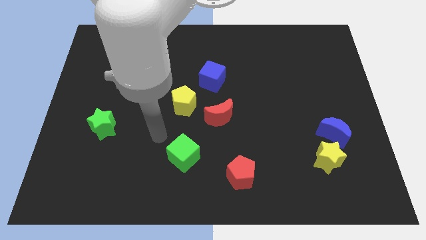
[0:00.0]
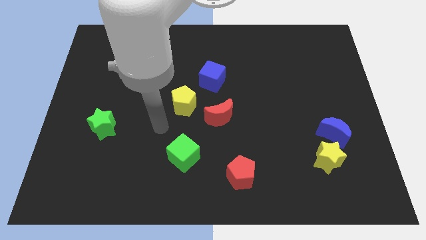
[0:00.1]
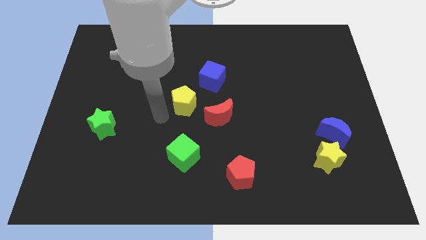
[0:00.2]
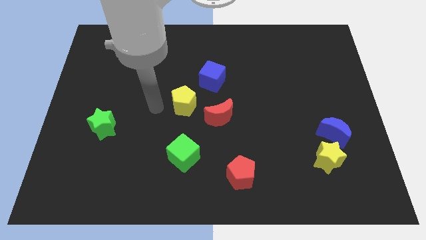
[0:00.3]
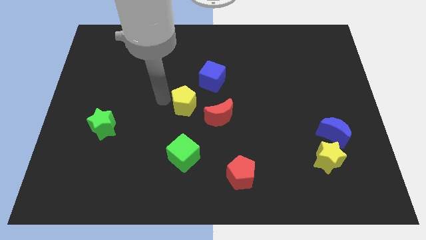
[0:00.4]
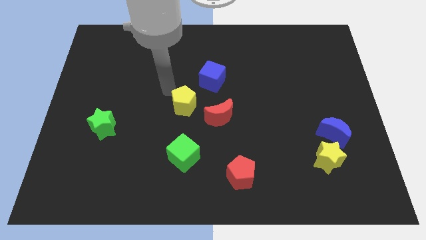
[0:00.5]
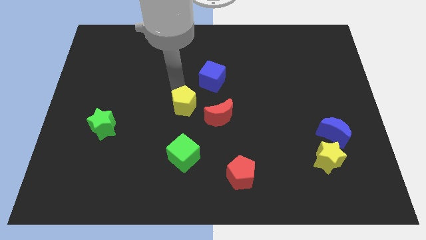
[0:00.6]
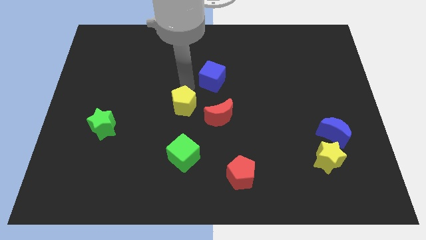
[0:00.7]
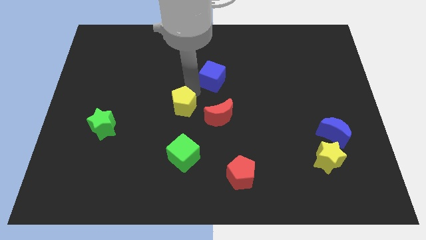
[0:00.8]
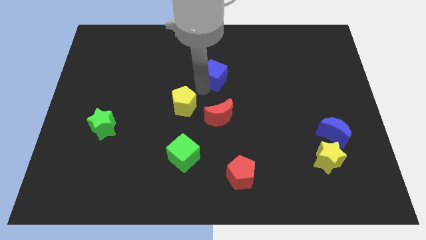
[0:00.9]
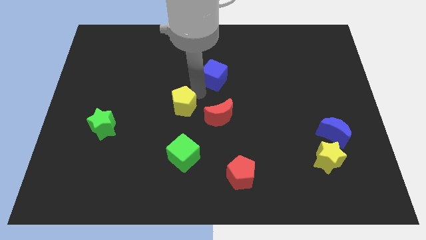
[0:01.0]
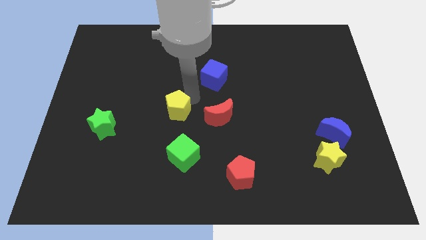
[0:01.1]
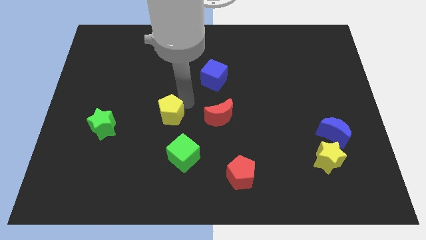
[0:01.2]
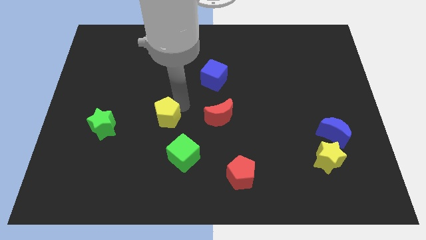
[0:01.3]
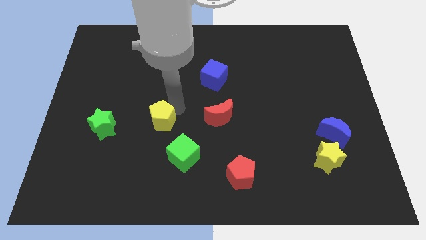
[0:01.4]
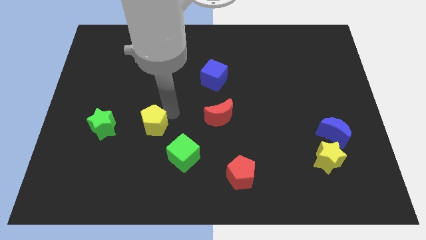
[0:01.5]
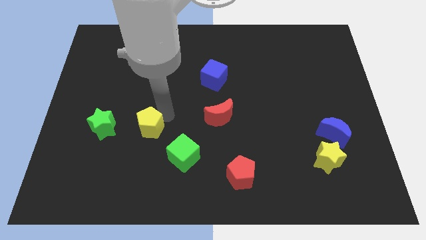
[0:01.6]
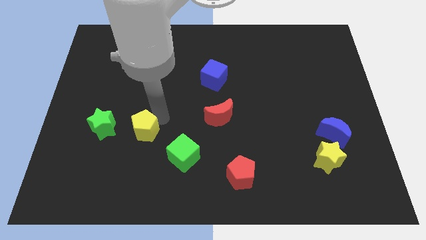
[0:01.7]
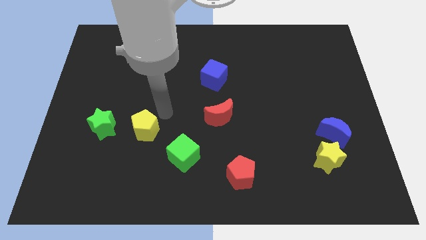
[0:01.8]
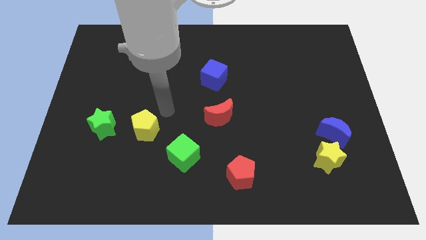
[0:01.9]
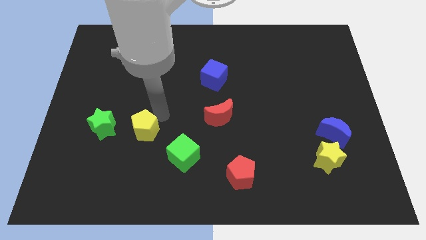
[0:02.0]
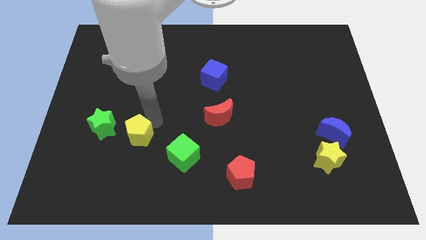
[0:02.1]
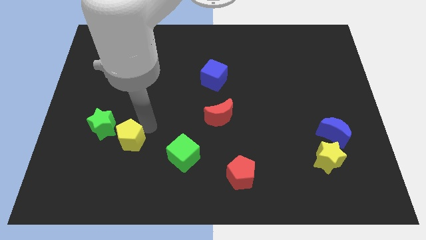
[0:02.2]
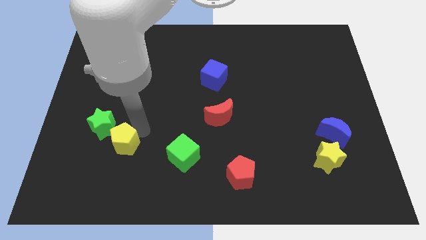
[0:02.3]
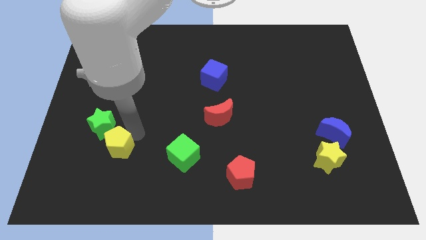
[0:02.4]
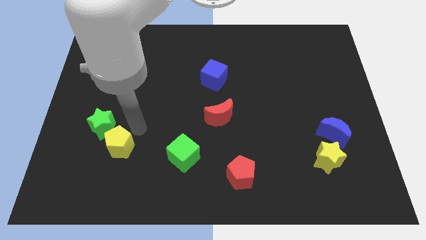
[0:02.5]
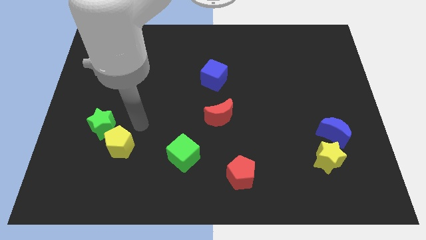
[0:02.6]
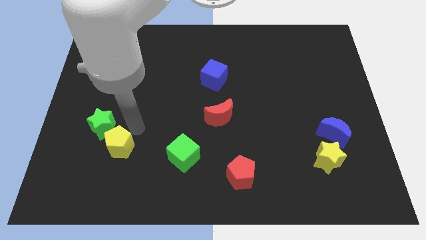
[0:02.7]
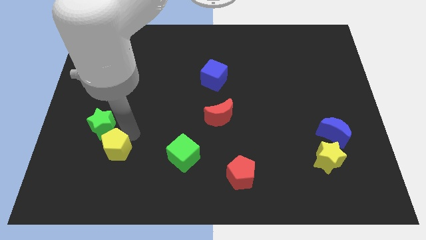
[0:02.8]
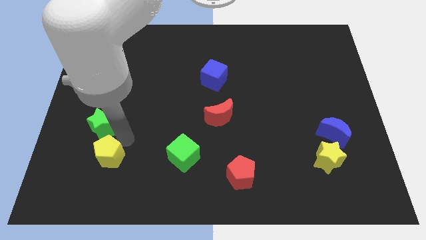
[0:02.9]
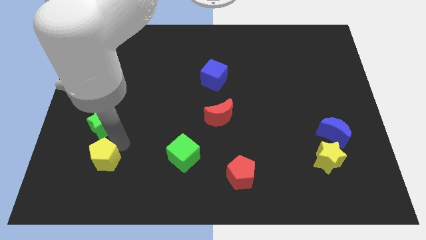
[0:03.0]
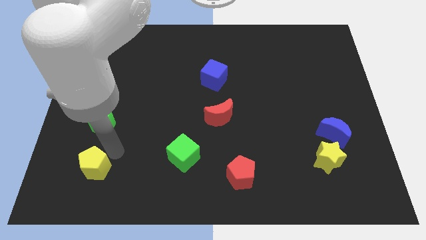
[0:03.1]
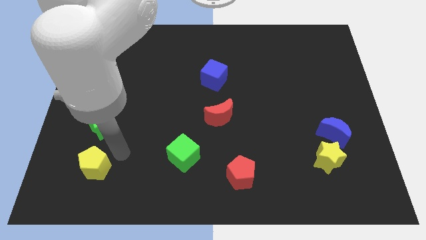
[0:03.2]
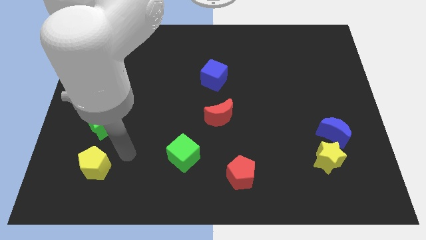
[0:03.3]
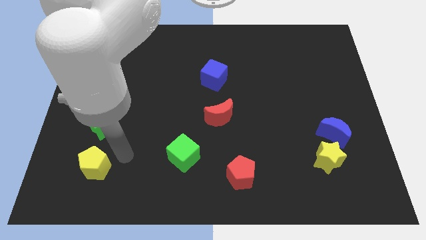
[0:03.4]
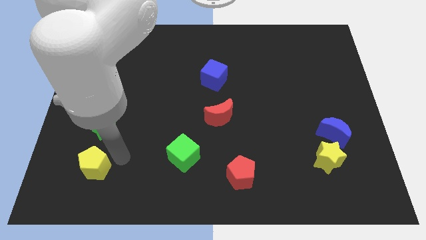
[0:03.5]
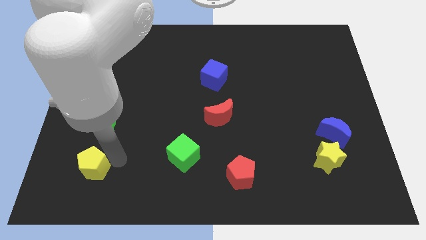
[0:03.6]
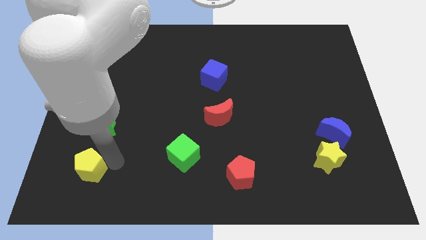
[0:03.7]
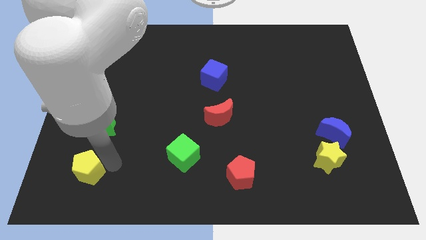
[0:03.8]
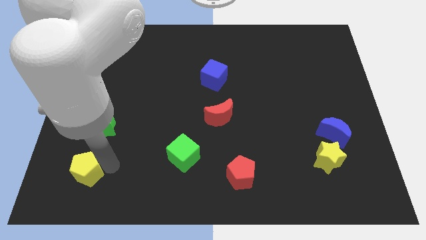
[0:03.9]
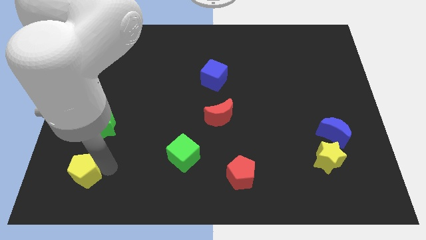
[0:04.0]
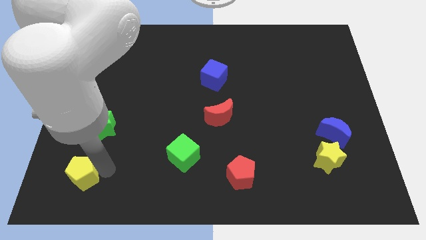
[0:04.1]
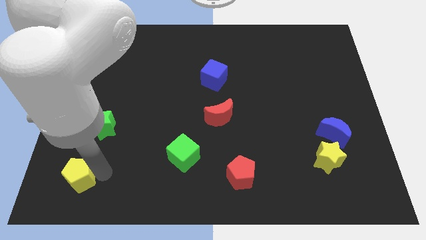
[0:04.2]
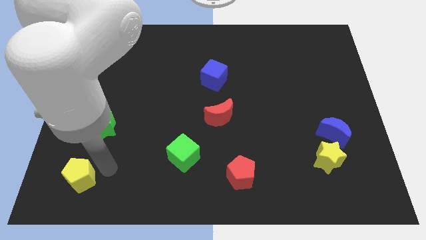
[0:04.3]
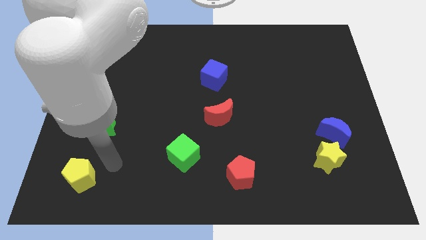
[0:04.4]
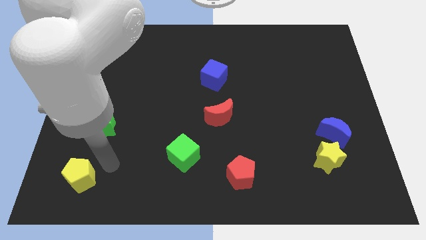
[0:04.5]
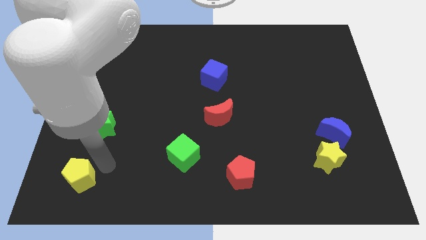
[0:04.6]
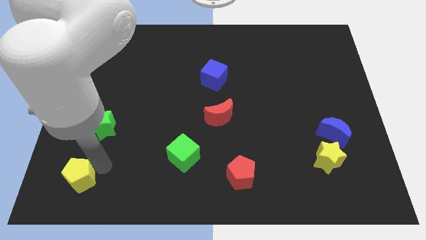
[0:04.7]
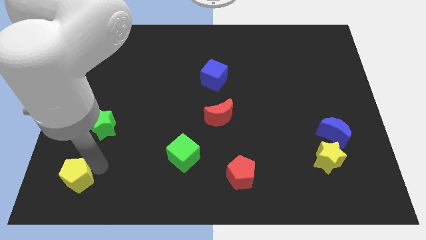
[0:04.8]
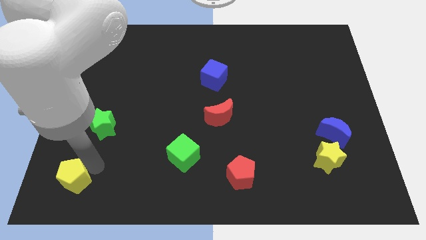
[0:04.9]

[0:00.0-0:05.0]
move the yellow pentagon to the bottom left

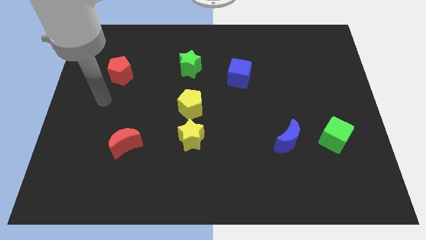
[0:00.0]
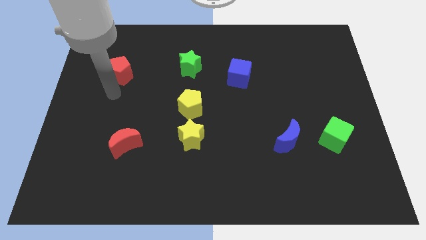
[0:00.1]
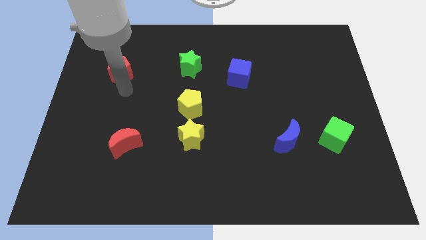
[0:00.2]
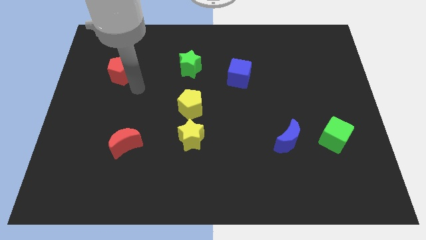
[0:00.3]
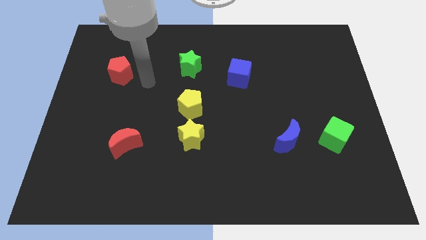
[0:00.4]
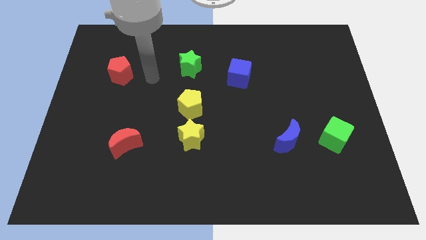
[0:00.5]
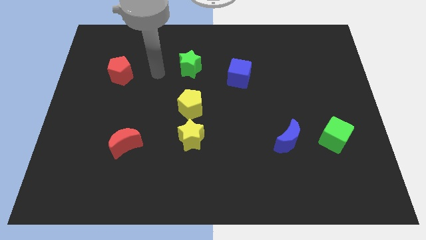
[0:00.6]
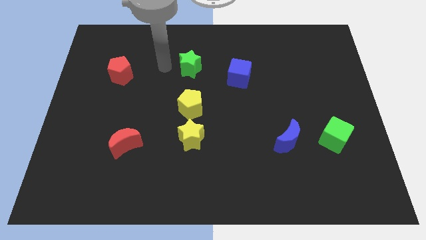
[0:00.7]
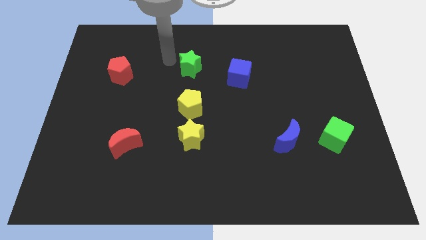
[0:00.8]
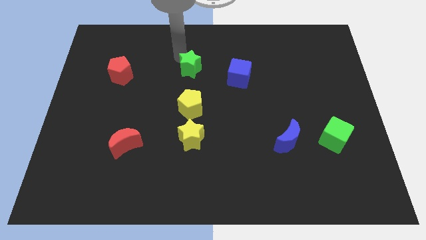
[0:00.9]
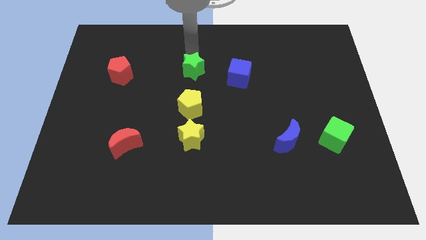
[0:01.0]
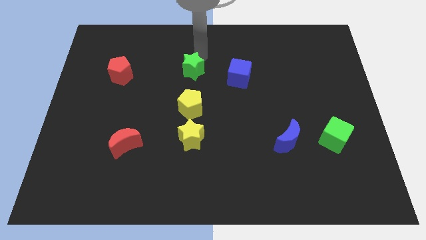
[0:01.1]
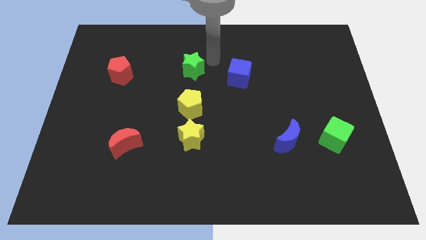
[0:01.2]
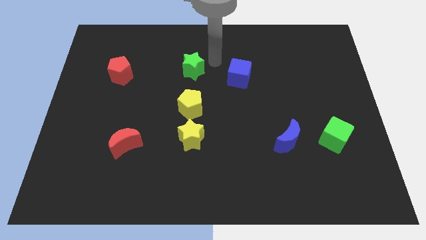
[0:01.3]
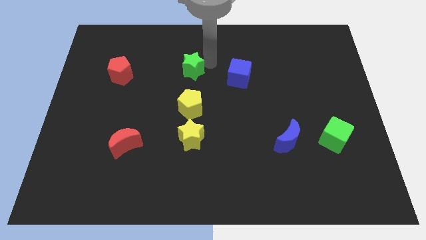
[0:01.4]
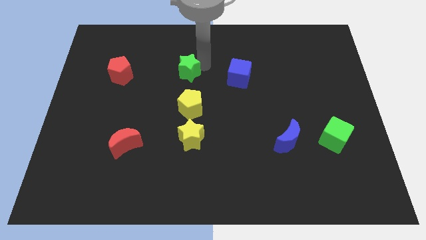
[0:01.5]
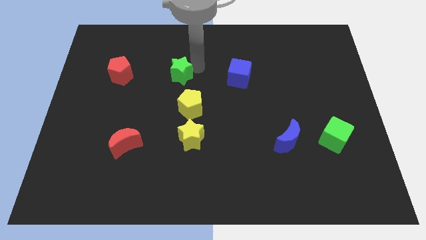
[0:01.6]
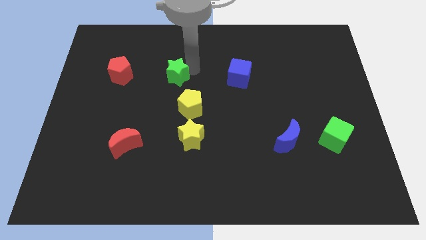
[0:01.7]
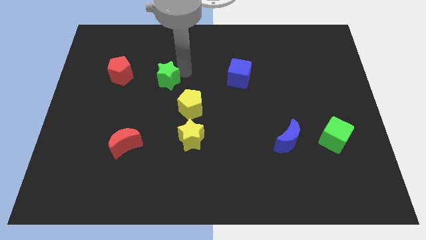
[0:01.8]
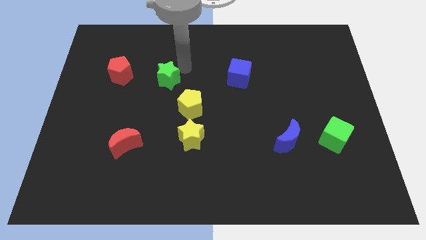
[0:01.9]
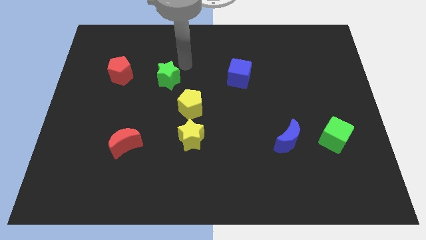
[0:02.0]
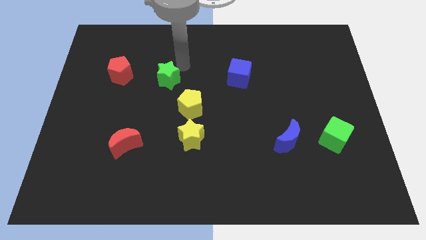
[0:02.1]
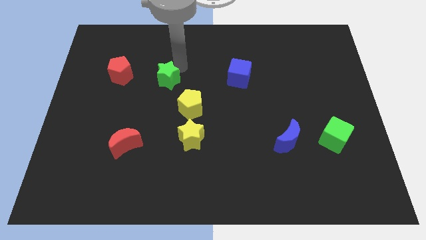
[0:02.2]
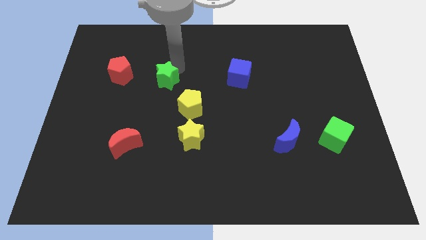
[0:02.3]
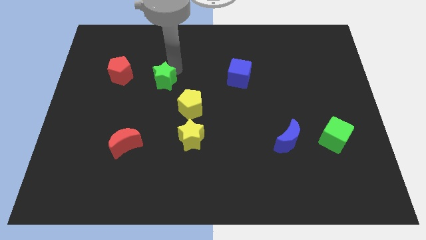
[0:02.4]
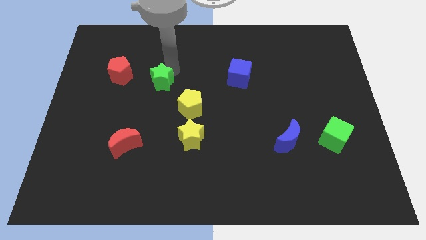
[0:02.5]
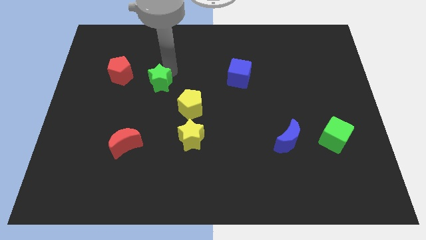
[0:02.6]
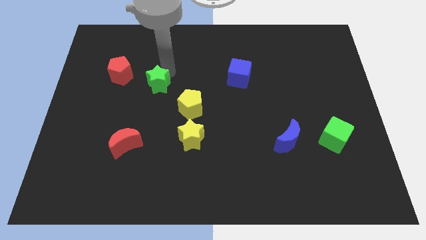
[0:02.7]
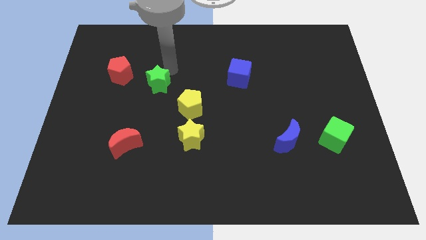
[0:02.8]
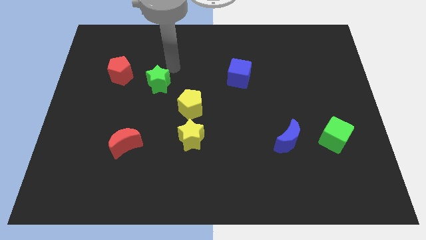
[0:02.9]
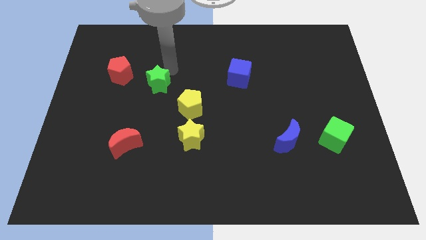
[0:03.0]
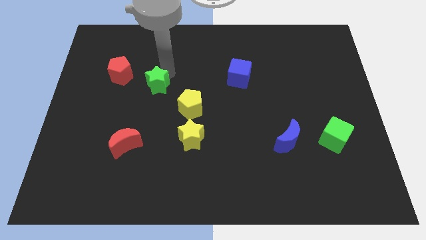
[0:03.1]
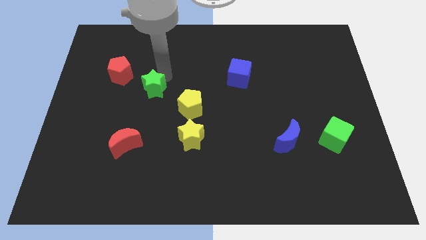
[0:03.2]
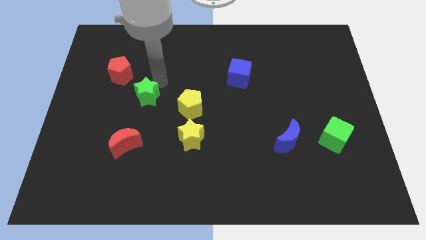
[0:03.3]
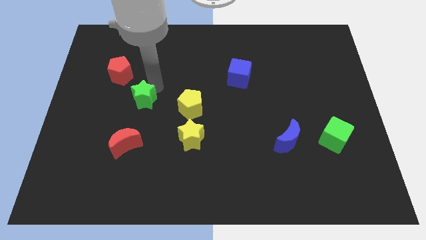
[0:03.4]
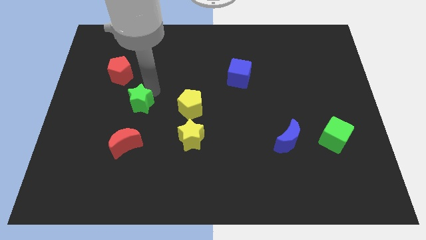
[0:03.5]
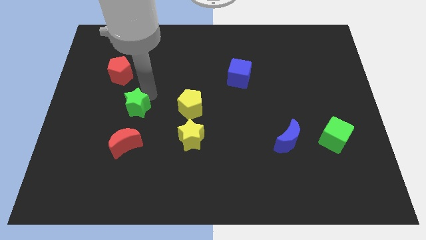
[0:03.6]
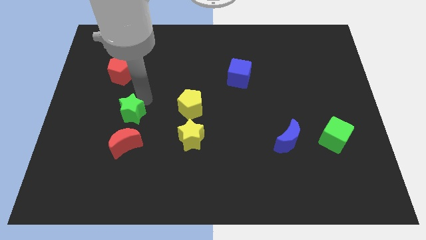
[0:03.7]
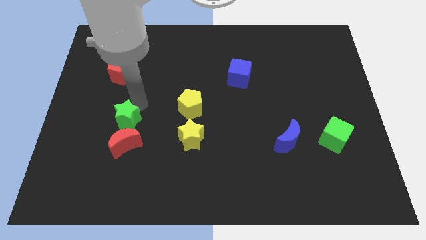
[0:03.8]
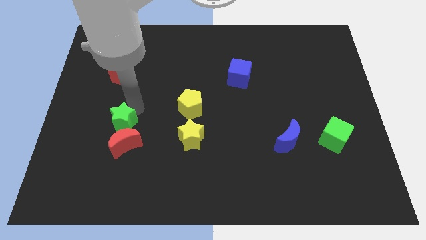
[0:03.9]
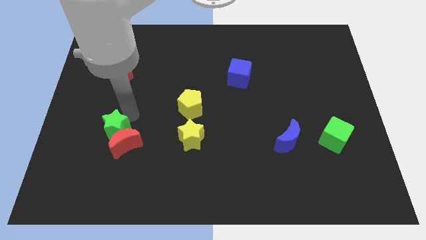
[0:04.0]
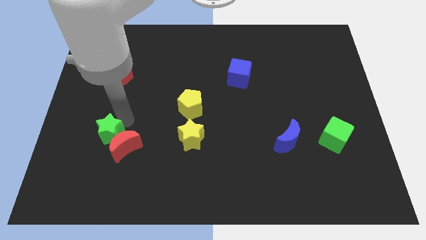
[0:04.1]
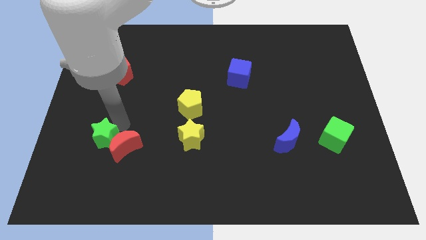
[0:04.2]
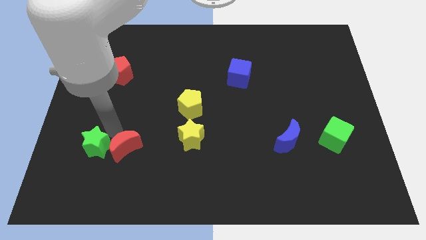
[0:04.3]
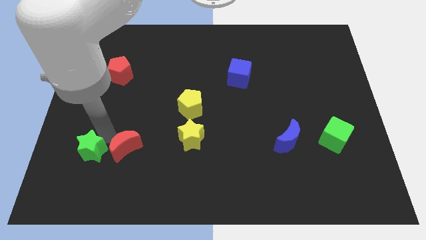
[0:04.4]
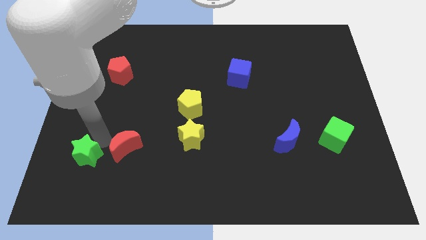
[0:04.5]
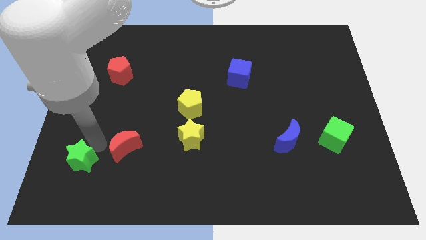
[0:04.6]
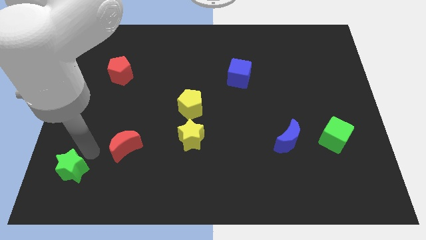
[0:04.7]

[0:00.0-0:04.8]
slide the green star to the bottom left
